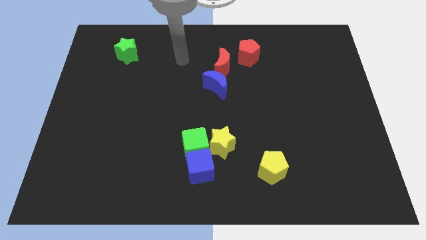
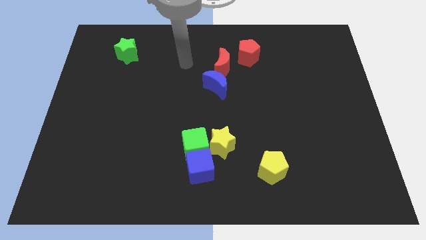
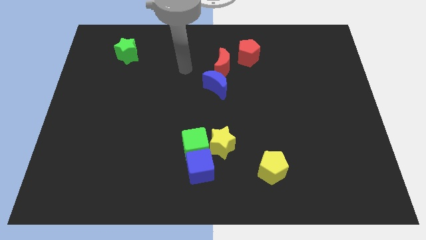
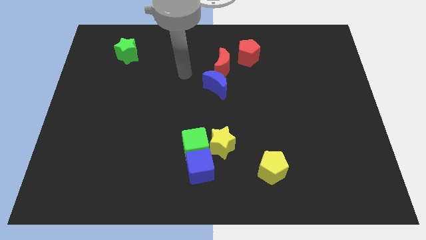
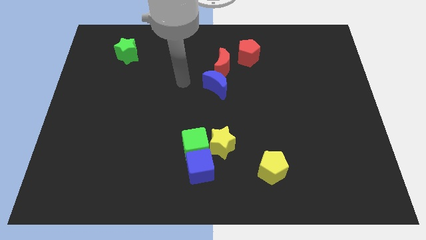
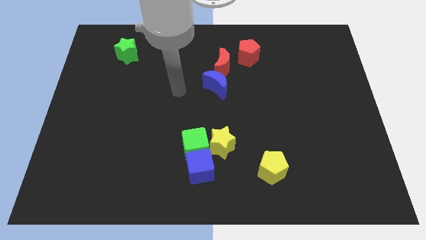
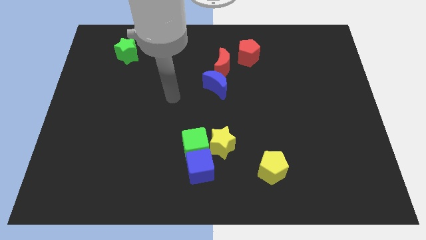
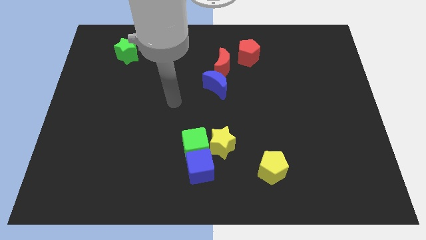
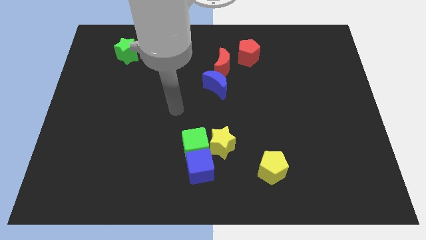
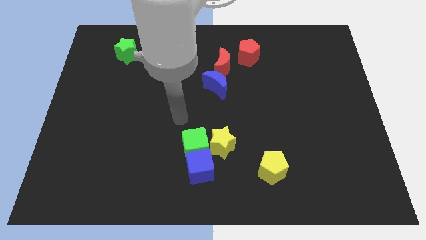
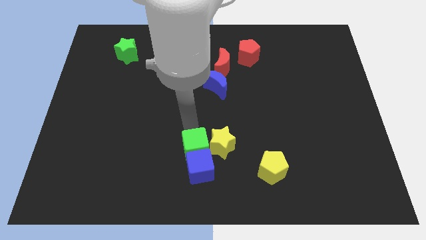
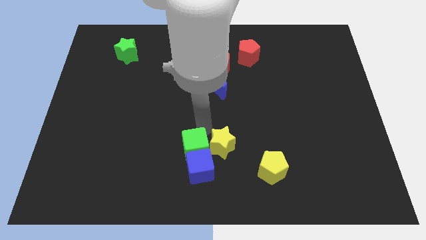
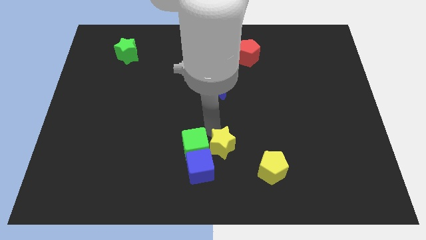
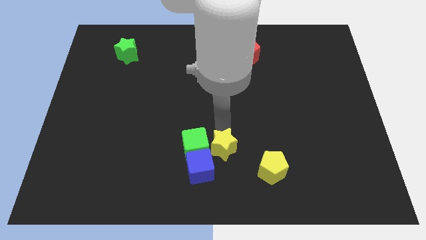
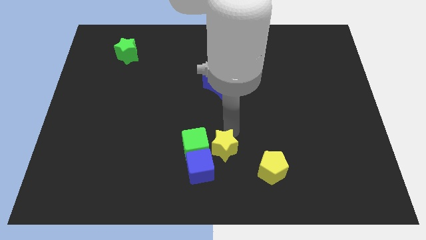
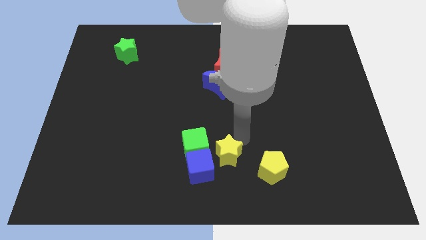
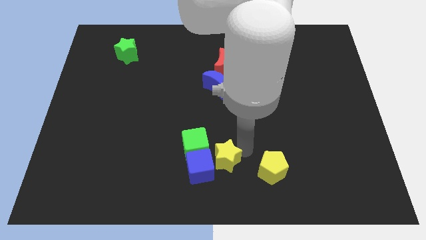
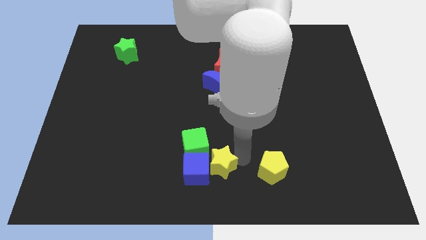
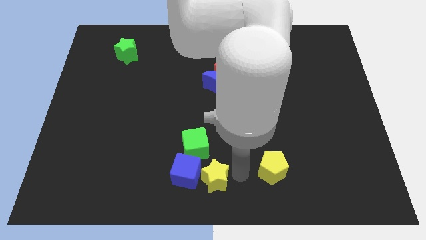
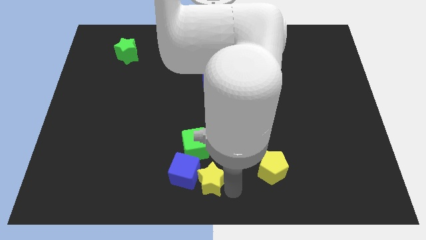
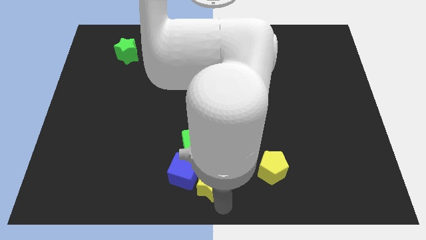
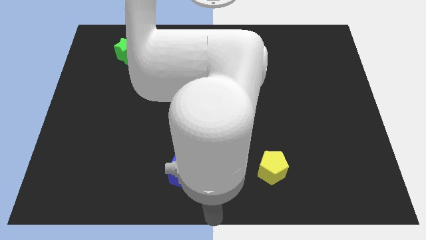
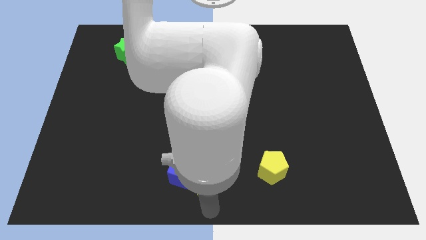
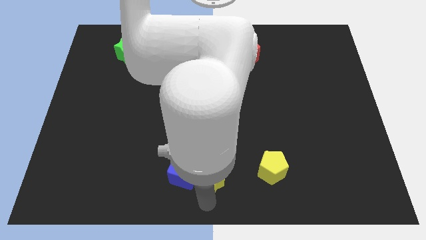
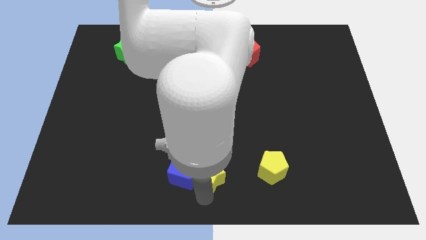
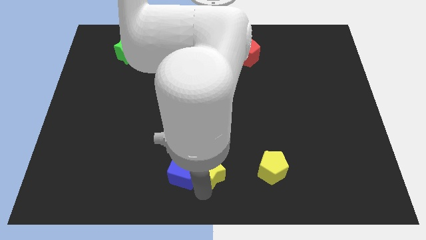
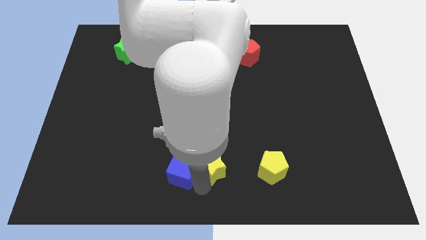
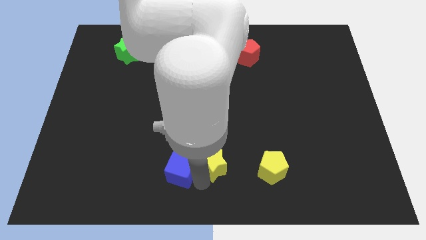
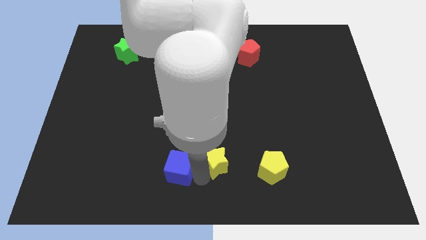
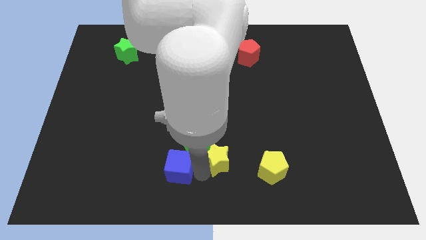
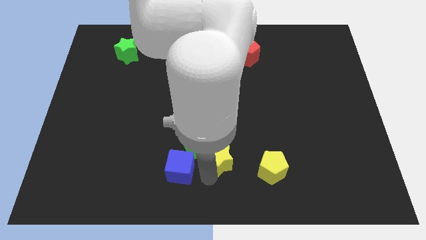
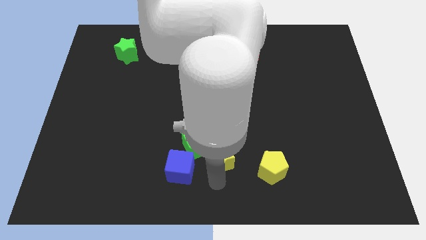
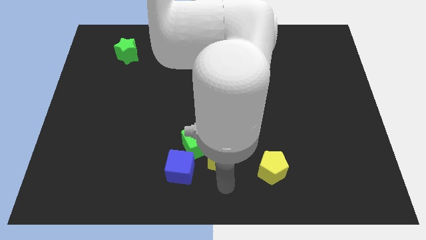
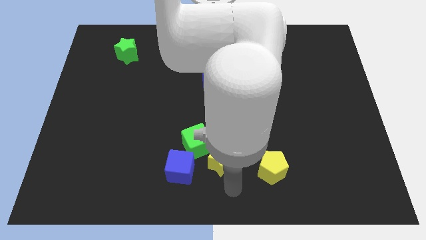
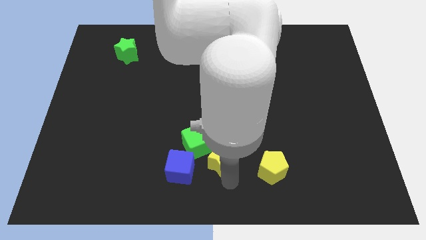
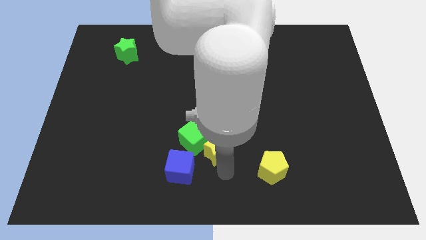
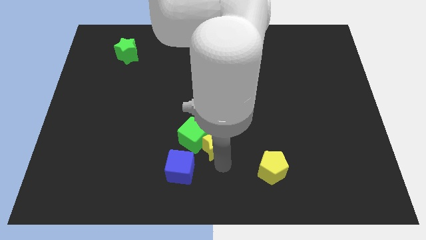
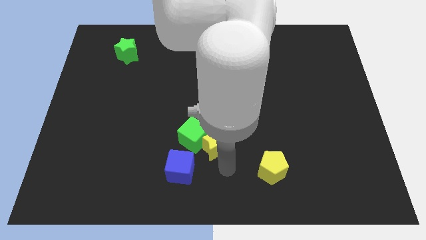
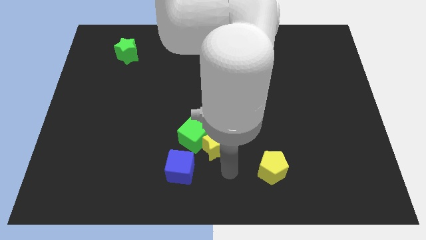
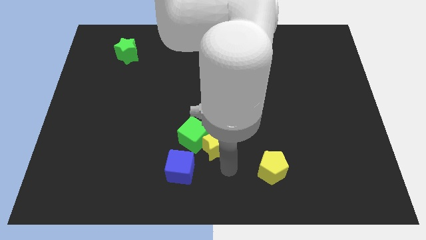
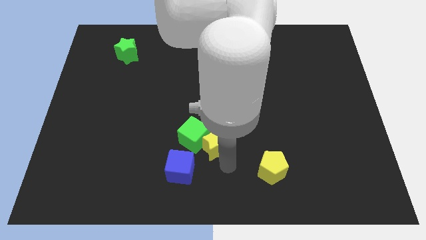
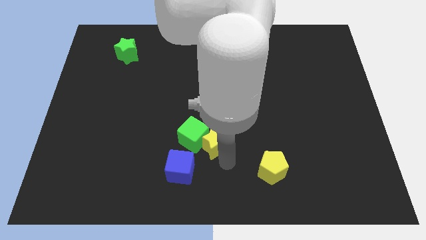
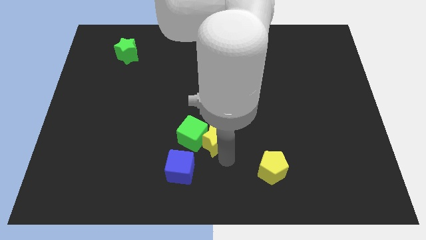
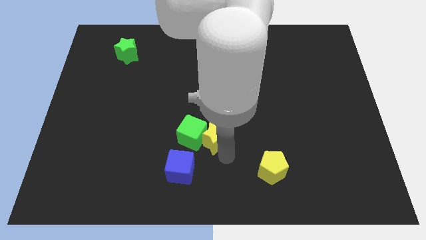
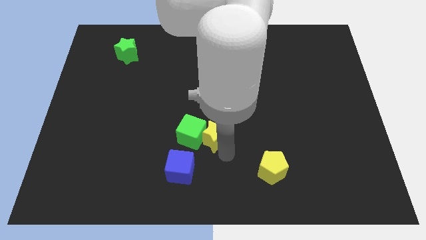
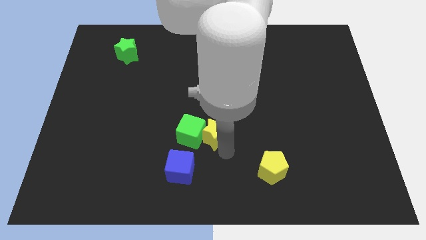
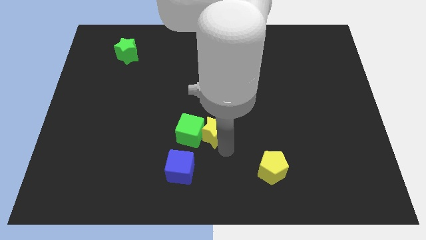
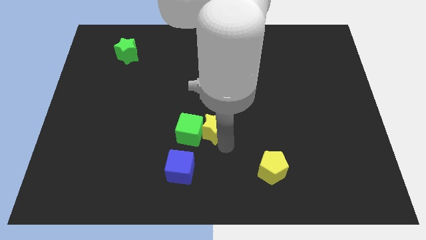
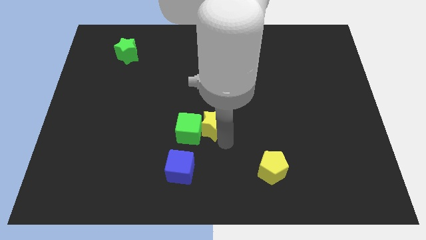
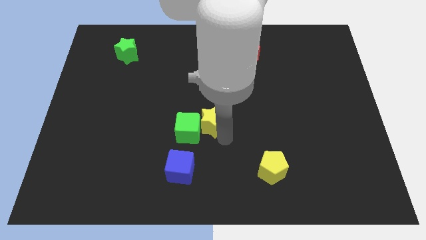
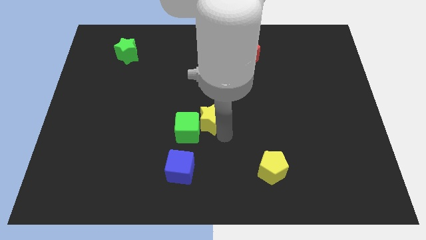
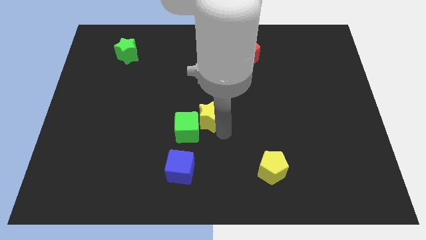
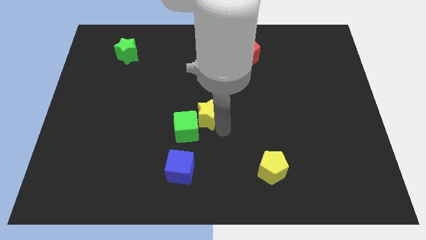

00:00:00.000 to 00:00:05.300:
move the yellow star upwards and then to the left a little bit

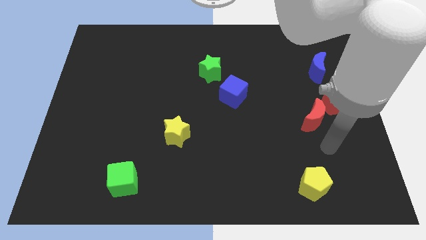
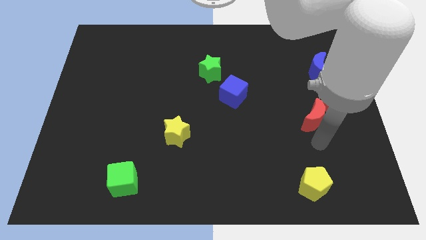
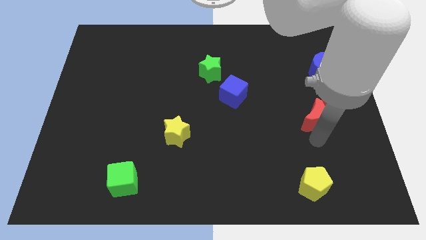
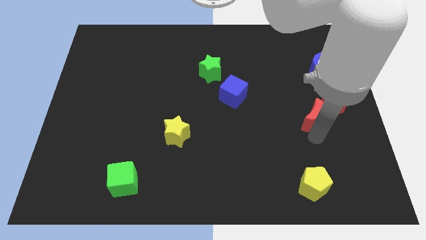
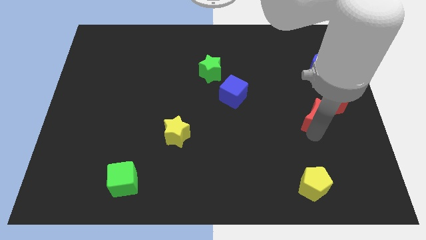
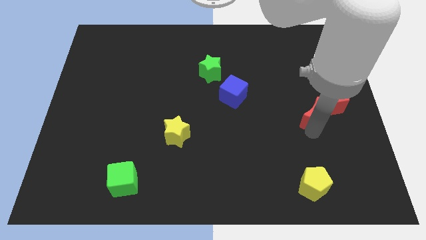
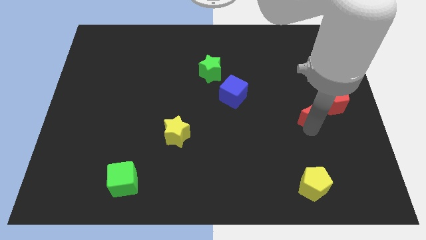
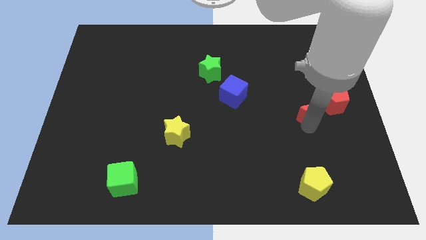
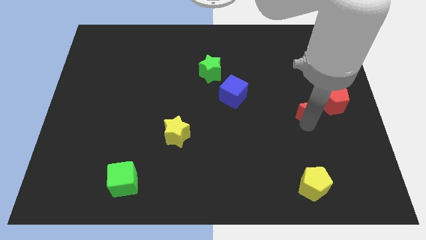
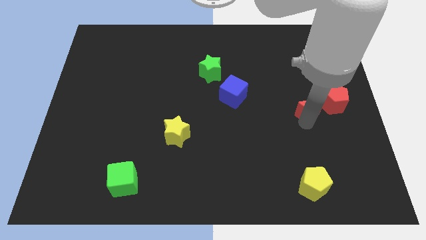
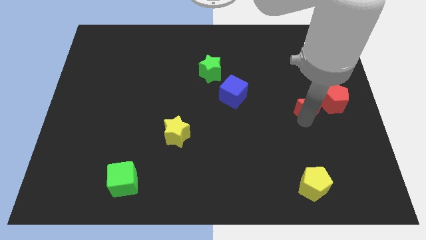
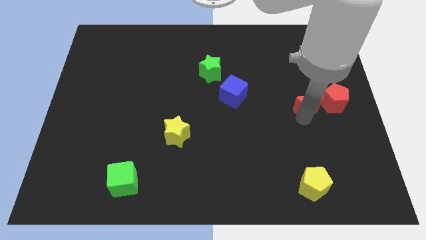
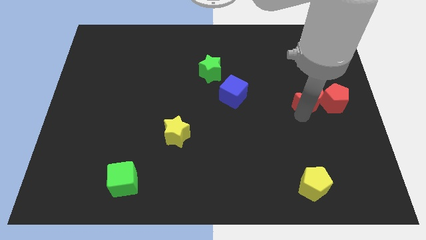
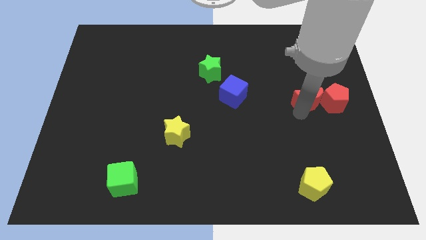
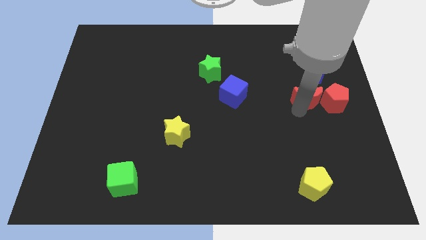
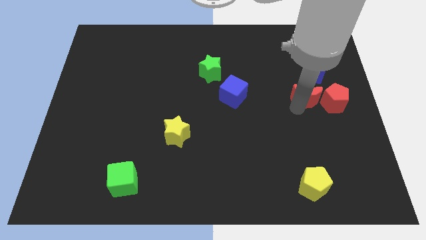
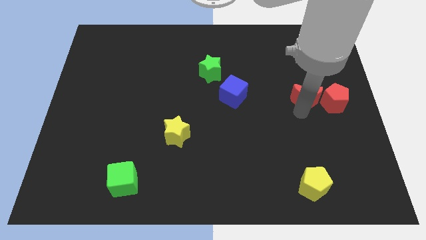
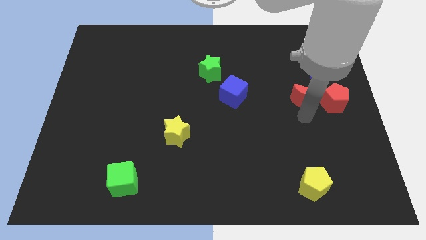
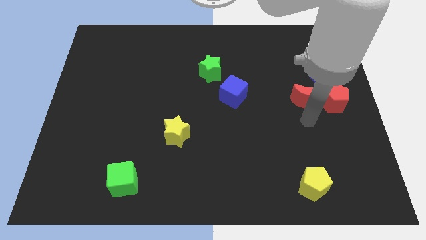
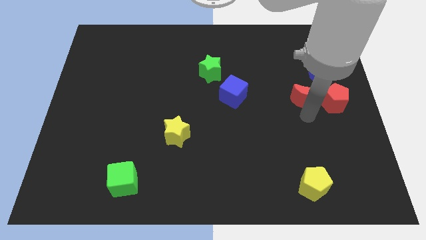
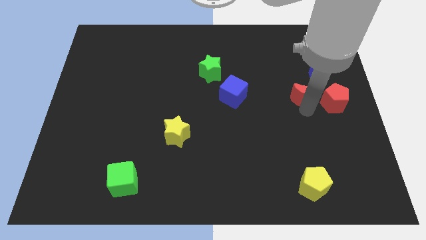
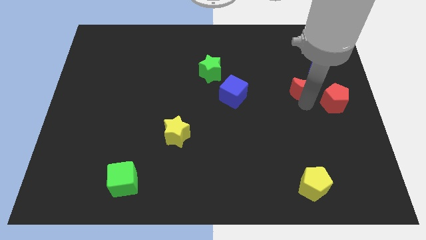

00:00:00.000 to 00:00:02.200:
slightly push the red moon up

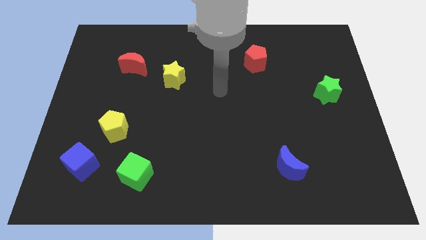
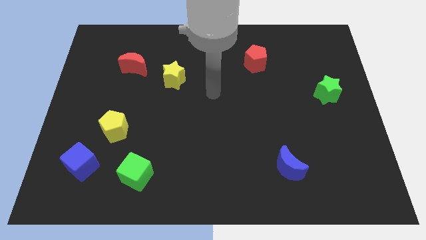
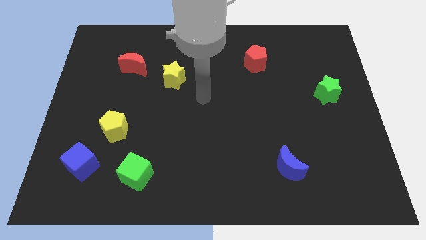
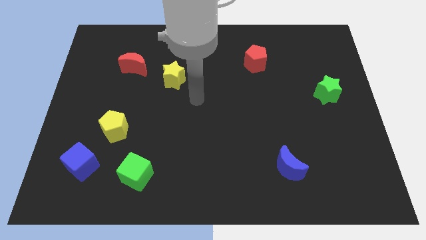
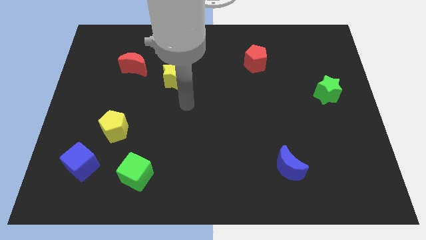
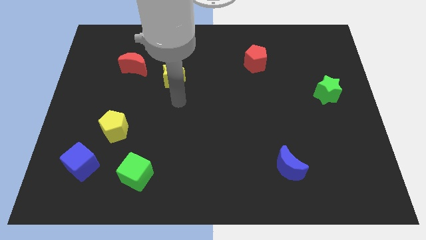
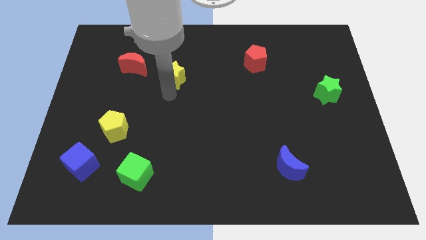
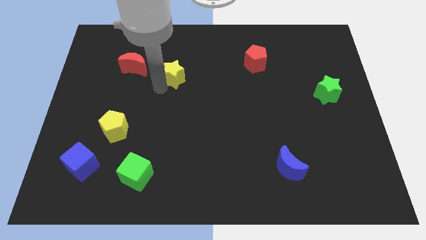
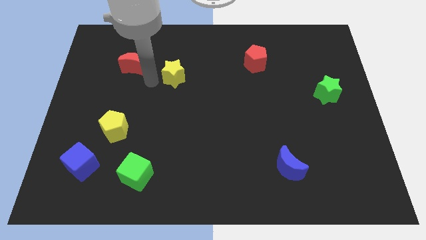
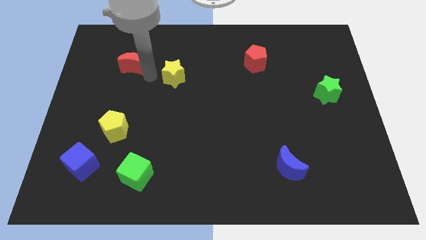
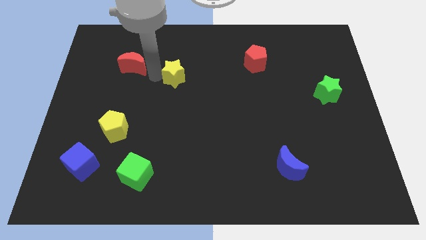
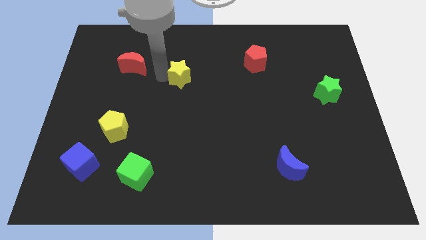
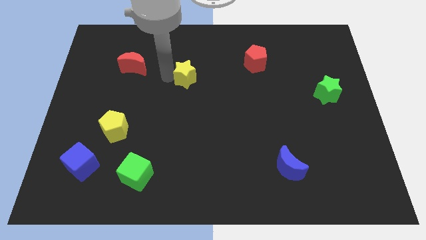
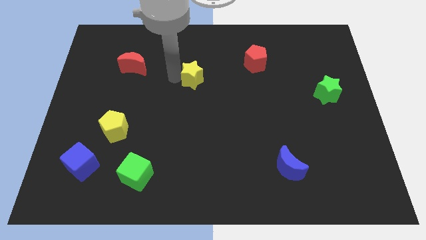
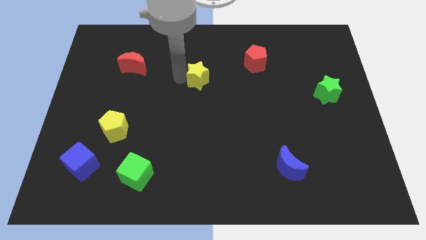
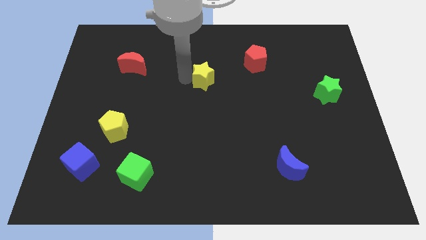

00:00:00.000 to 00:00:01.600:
push the yellow star right a little bit
